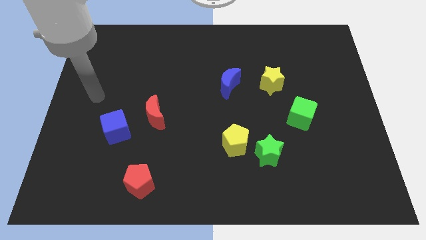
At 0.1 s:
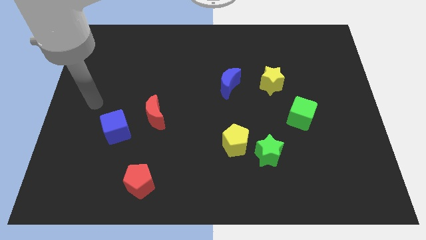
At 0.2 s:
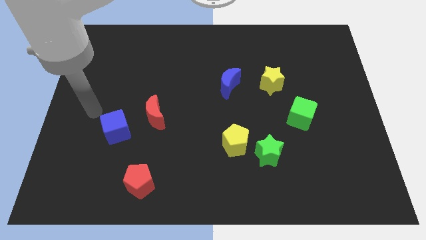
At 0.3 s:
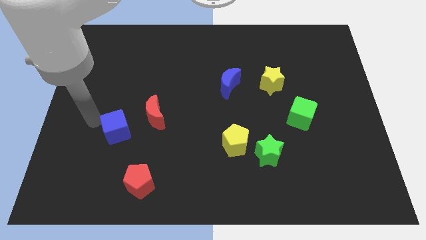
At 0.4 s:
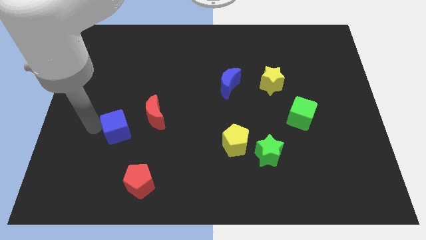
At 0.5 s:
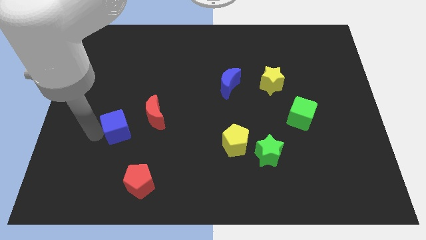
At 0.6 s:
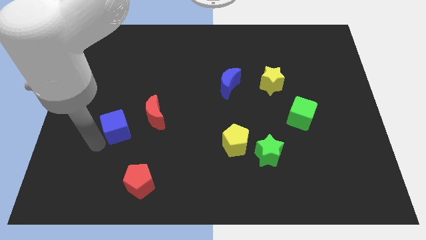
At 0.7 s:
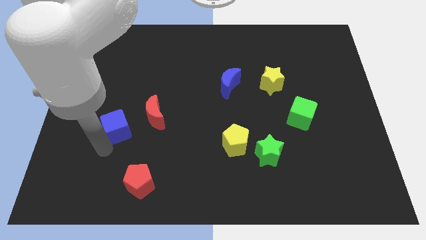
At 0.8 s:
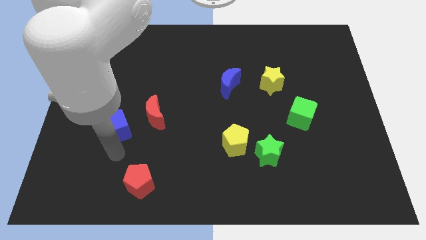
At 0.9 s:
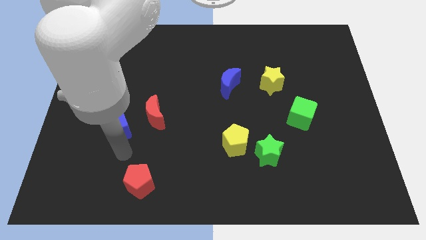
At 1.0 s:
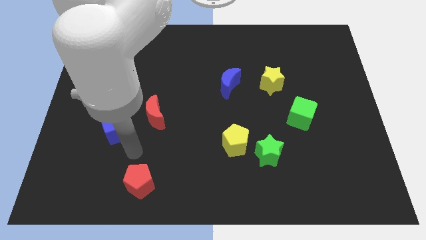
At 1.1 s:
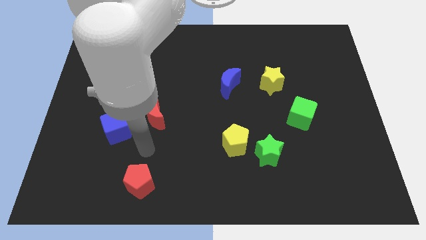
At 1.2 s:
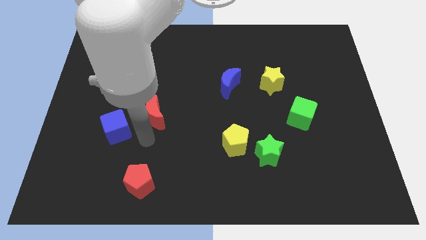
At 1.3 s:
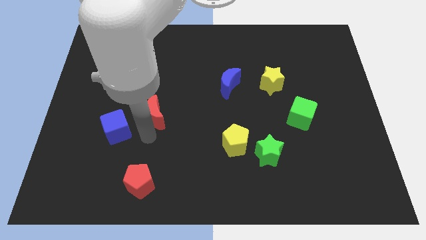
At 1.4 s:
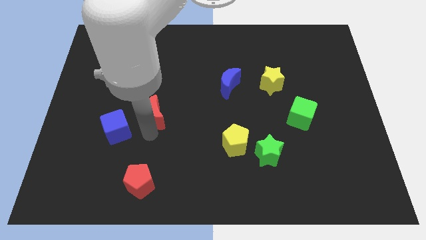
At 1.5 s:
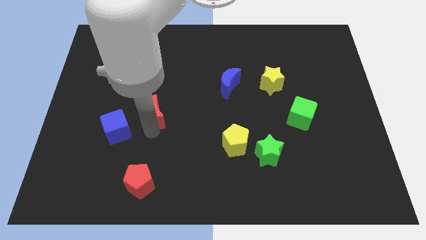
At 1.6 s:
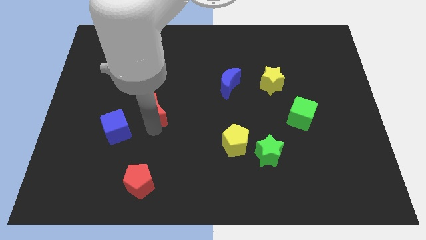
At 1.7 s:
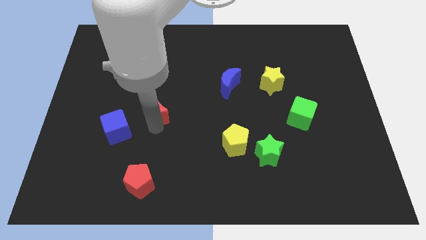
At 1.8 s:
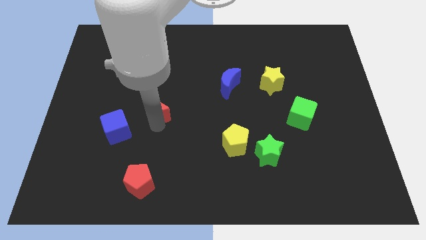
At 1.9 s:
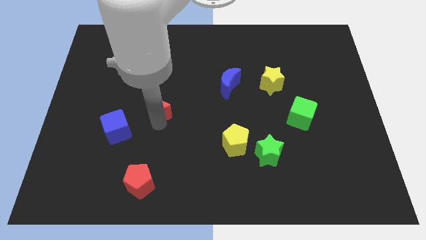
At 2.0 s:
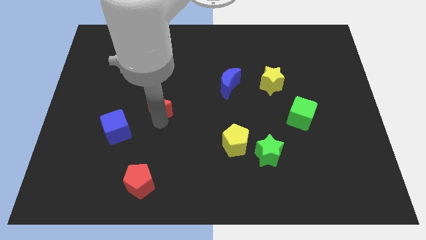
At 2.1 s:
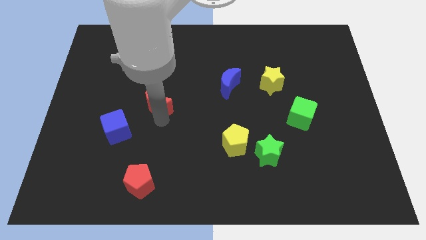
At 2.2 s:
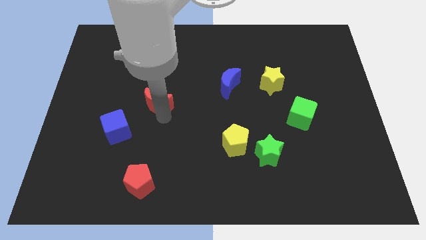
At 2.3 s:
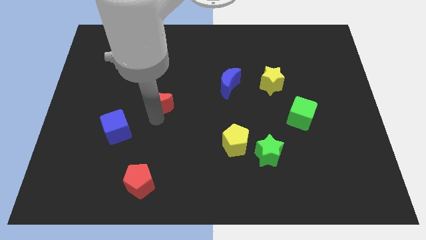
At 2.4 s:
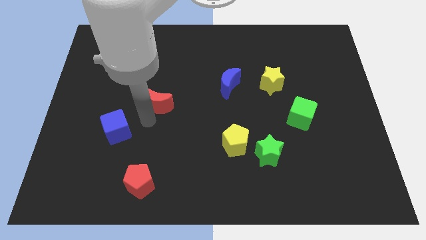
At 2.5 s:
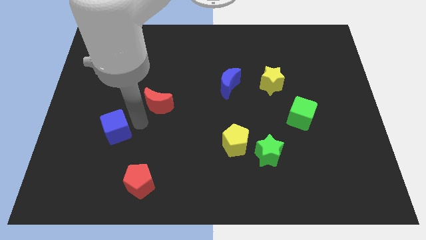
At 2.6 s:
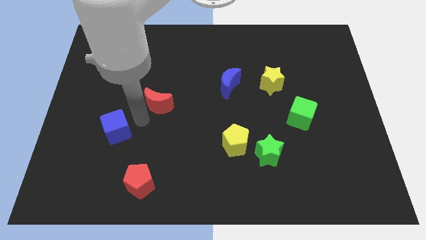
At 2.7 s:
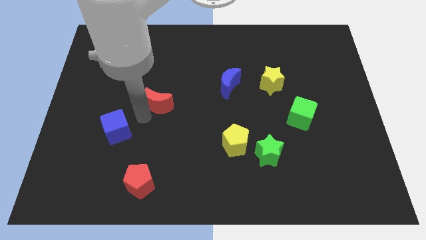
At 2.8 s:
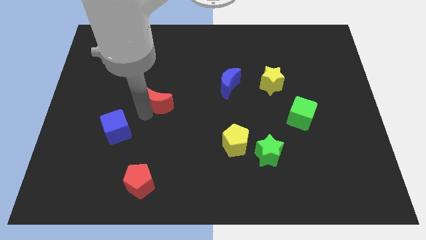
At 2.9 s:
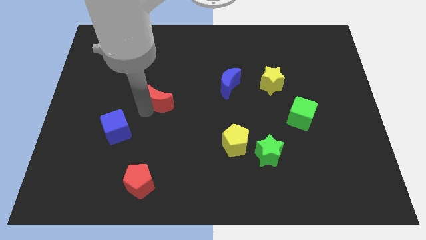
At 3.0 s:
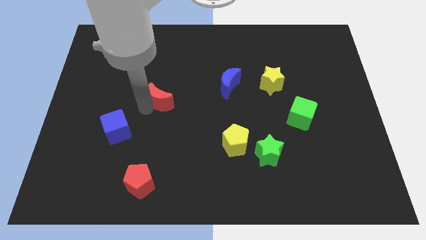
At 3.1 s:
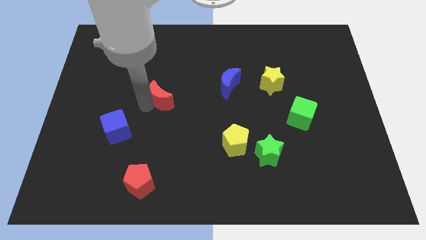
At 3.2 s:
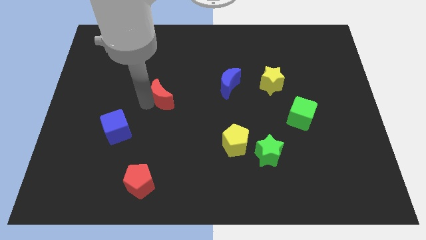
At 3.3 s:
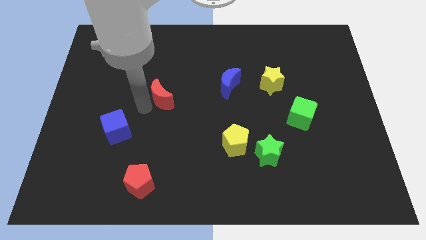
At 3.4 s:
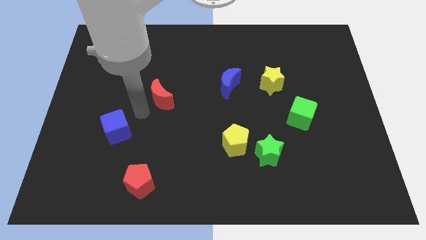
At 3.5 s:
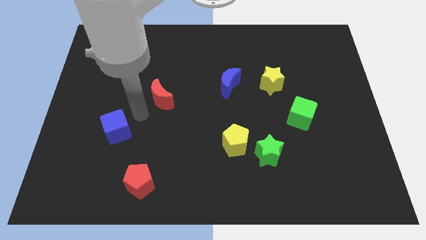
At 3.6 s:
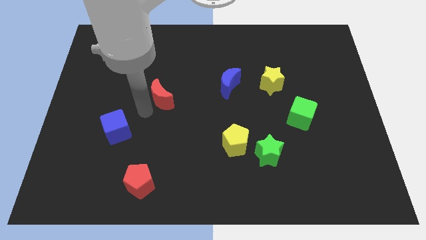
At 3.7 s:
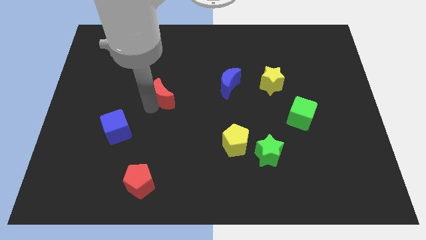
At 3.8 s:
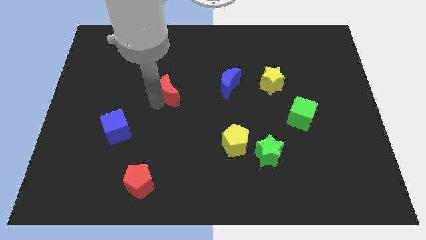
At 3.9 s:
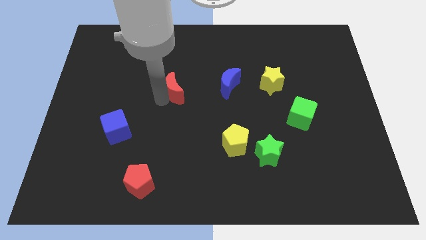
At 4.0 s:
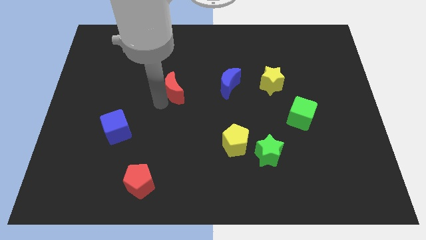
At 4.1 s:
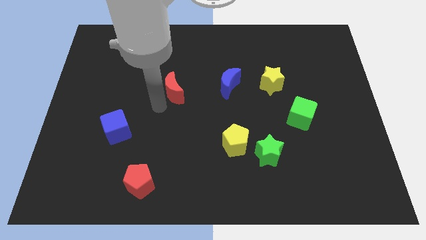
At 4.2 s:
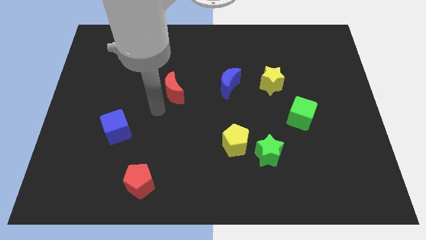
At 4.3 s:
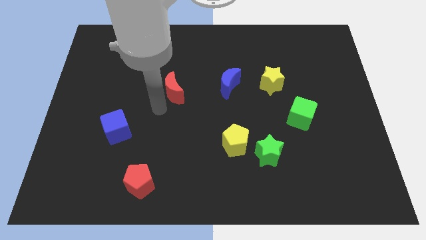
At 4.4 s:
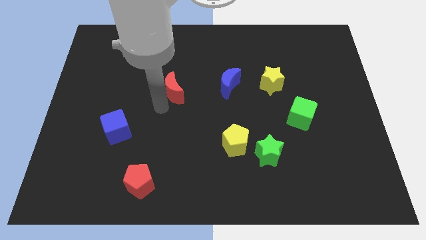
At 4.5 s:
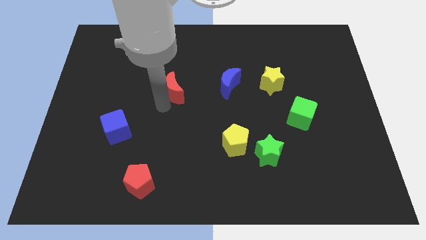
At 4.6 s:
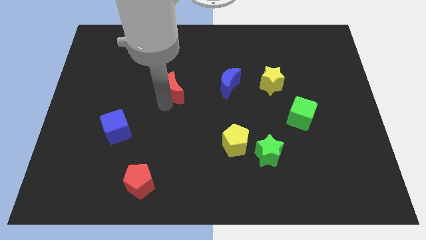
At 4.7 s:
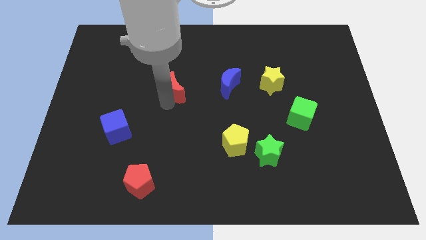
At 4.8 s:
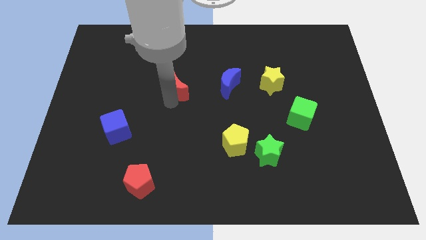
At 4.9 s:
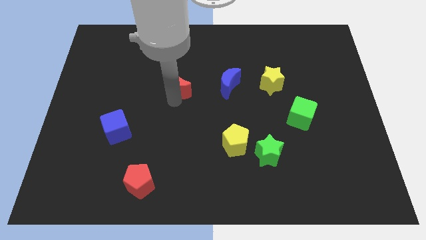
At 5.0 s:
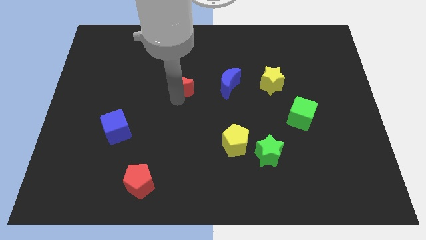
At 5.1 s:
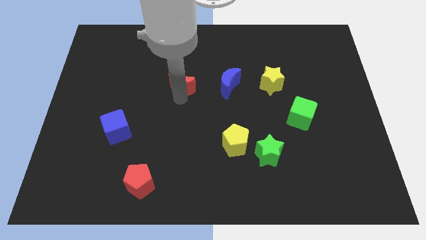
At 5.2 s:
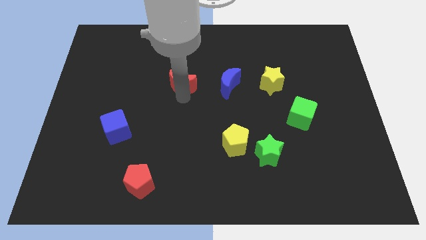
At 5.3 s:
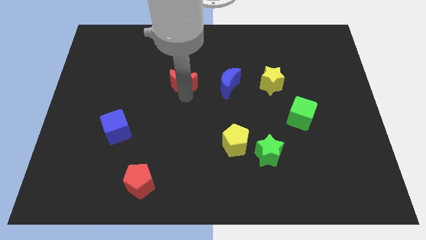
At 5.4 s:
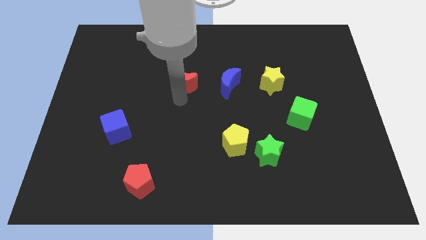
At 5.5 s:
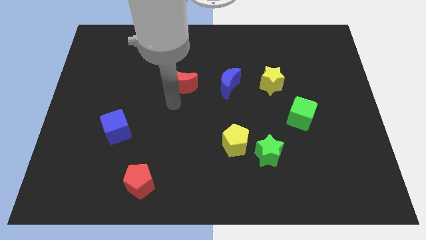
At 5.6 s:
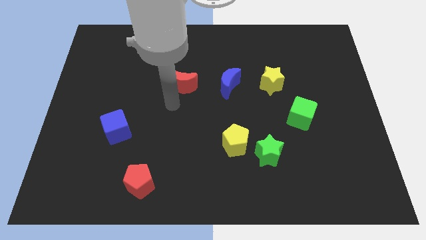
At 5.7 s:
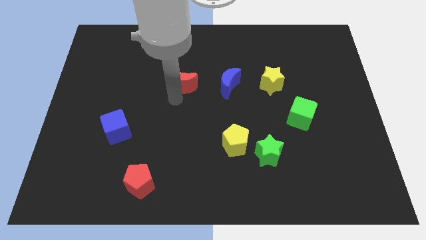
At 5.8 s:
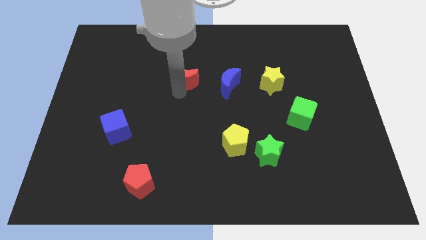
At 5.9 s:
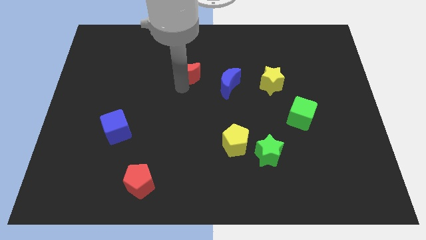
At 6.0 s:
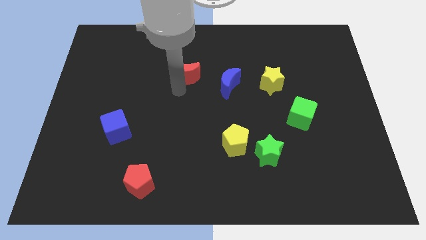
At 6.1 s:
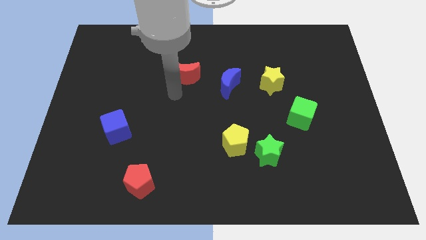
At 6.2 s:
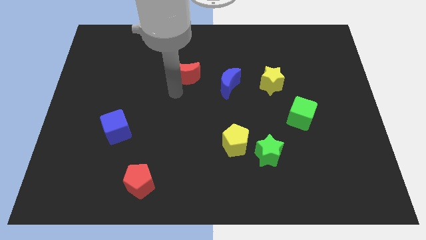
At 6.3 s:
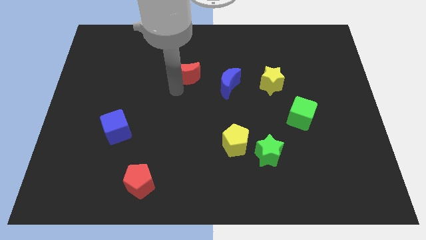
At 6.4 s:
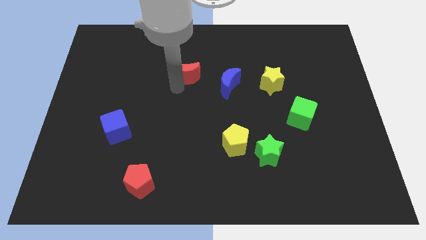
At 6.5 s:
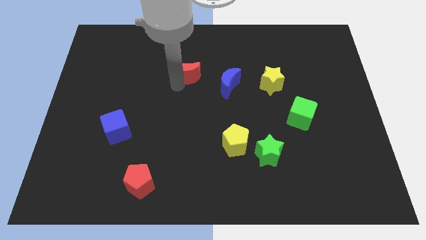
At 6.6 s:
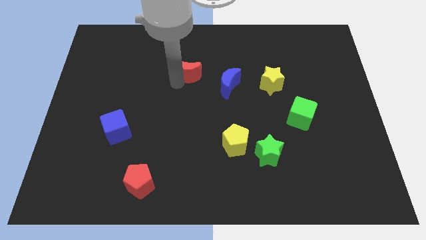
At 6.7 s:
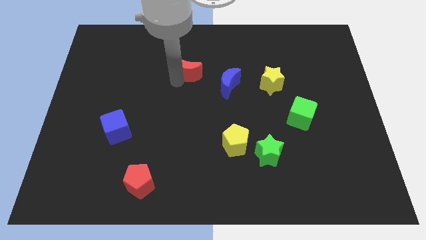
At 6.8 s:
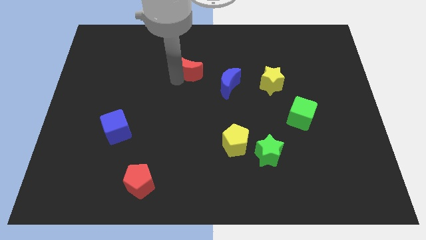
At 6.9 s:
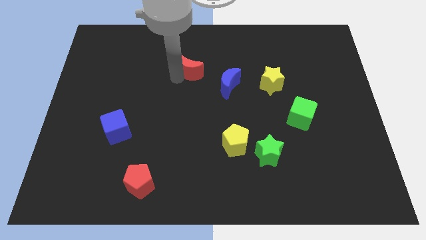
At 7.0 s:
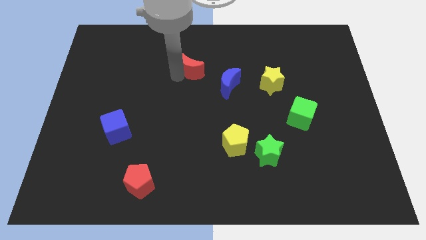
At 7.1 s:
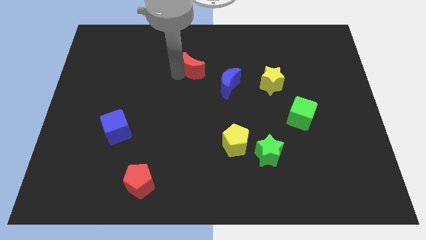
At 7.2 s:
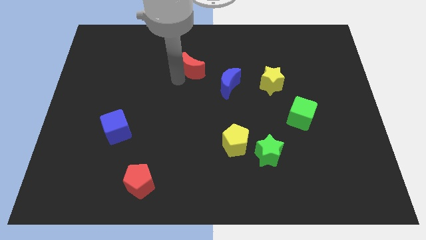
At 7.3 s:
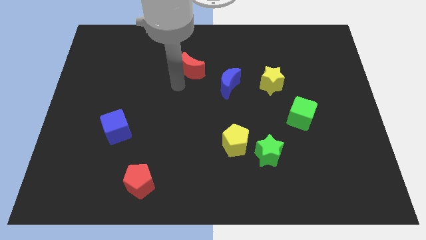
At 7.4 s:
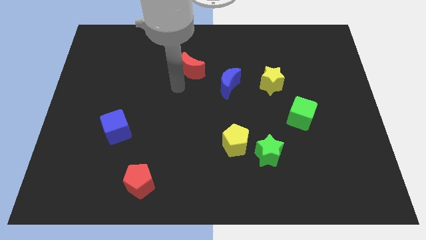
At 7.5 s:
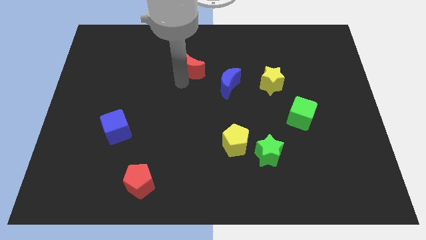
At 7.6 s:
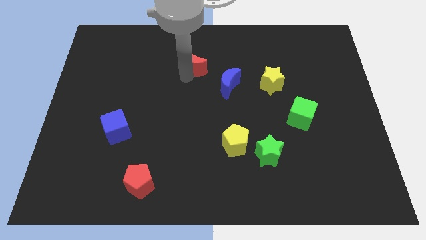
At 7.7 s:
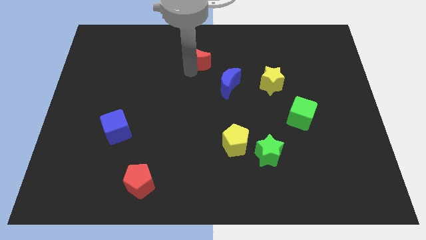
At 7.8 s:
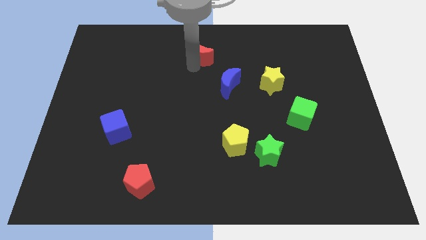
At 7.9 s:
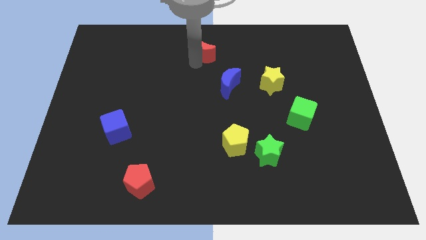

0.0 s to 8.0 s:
slide the red moon to the top
